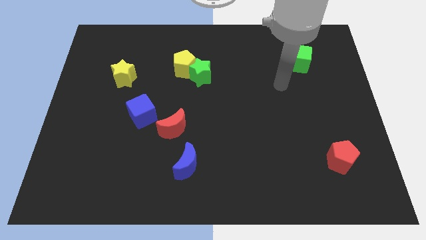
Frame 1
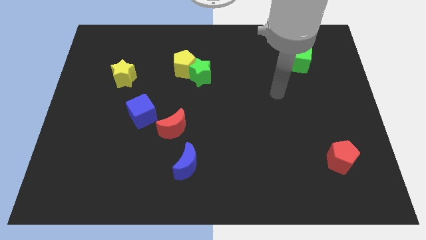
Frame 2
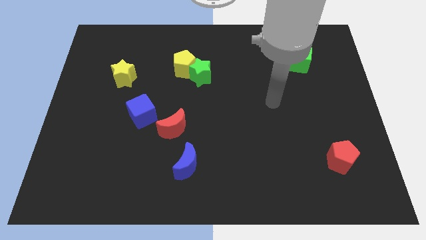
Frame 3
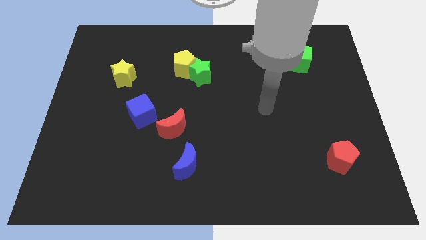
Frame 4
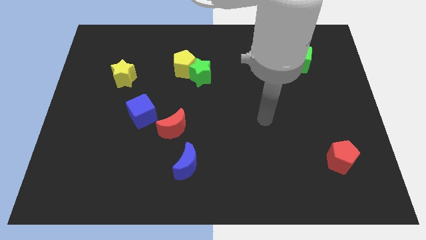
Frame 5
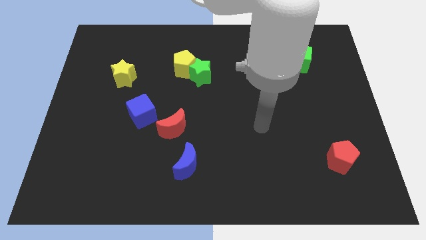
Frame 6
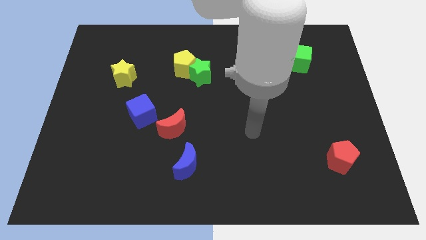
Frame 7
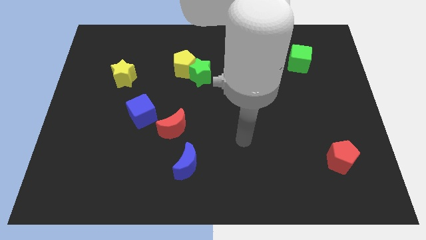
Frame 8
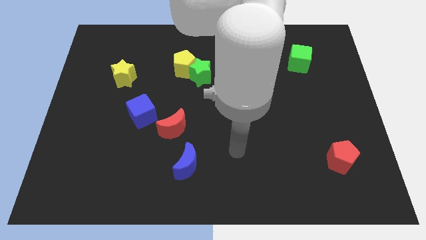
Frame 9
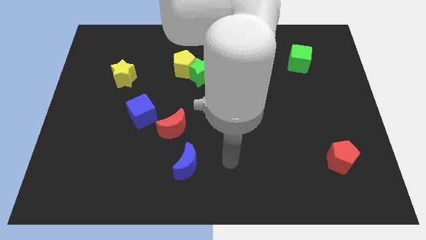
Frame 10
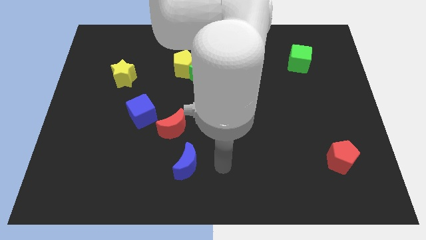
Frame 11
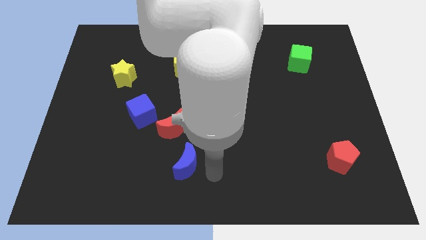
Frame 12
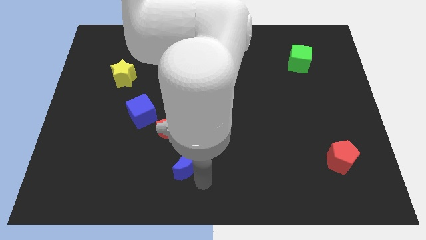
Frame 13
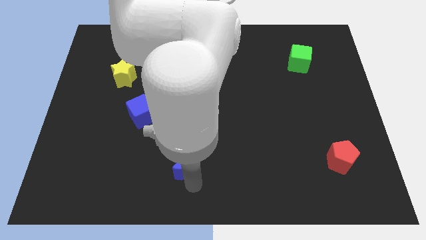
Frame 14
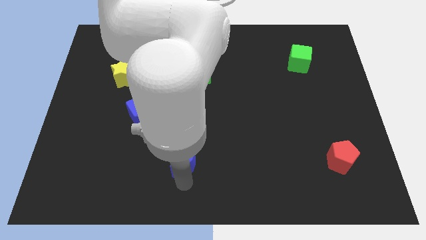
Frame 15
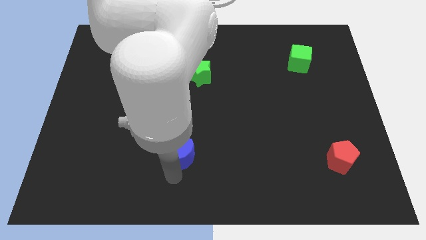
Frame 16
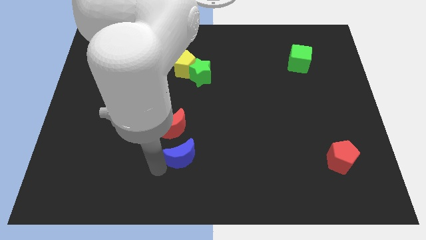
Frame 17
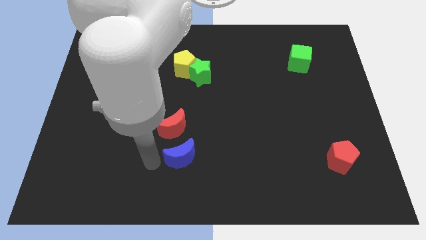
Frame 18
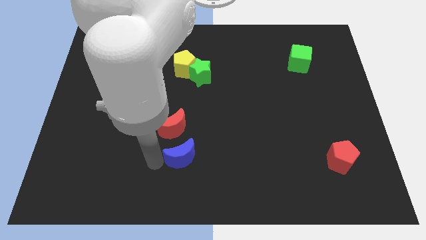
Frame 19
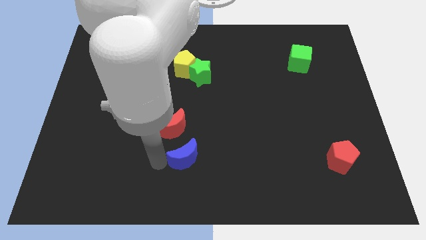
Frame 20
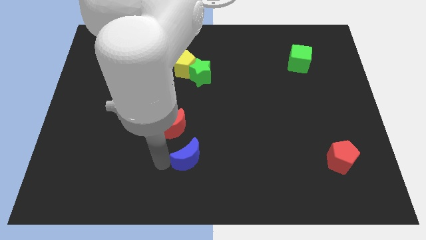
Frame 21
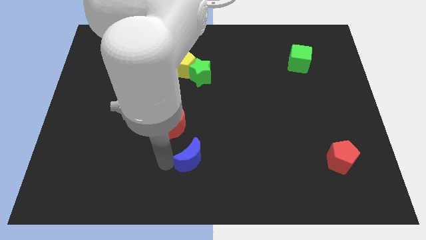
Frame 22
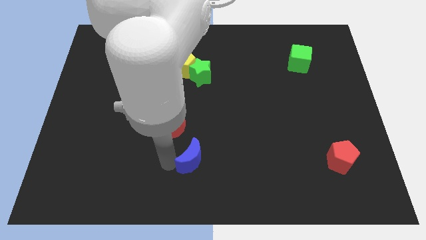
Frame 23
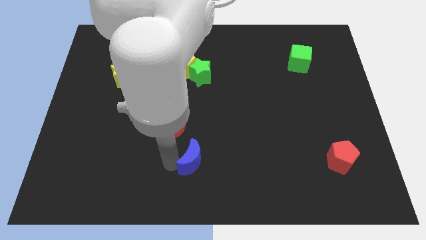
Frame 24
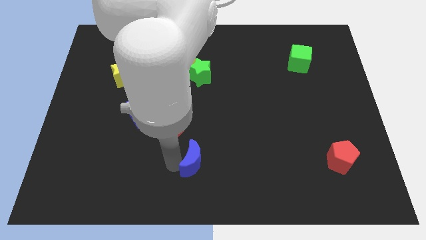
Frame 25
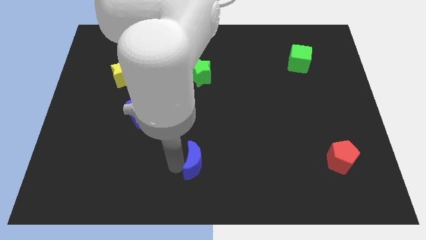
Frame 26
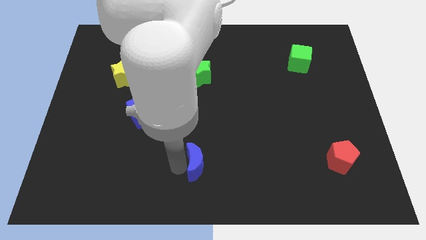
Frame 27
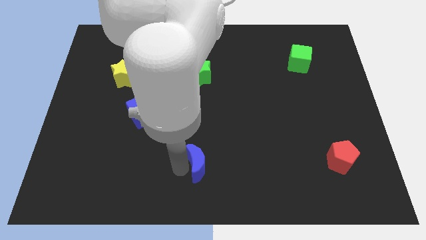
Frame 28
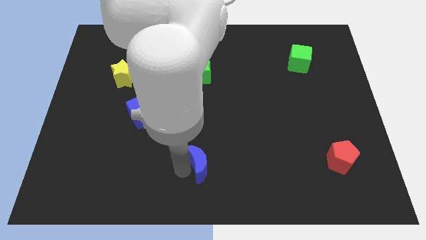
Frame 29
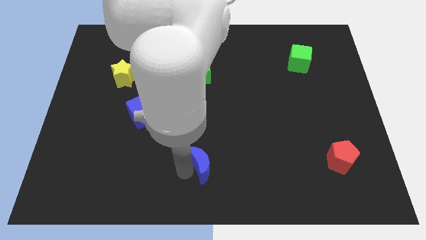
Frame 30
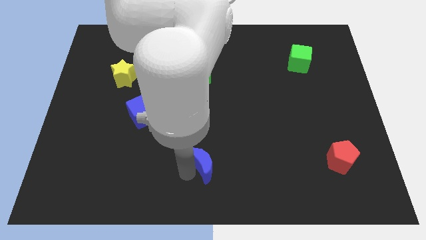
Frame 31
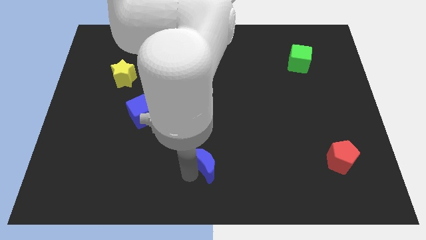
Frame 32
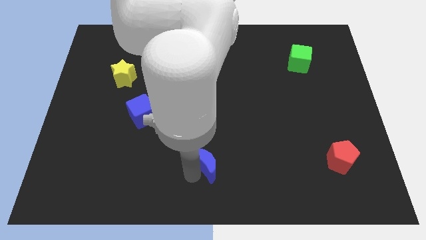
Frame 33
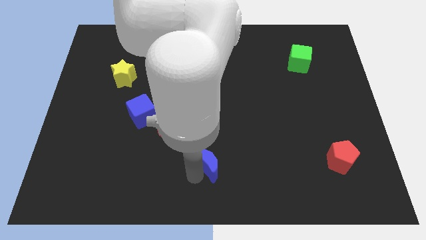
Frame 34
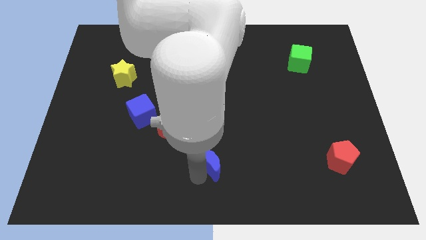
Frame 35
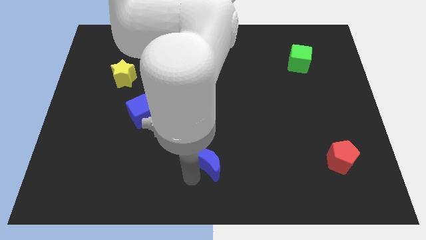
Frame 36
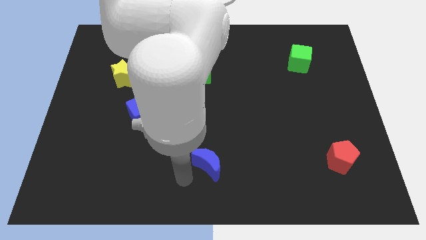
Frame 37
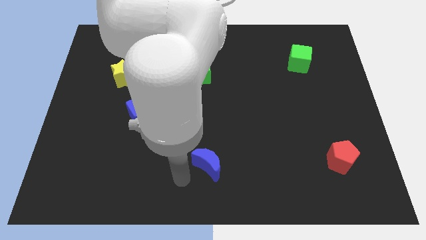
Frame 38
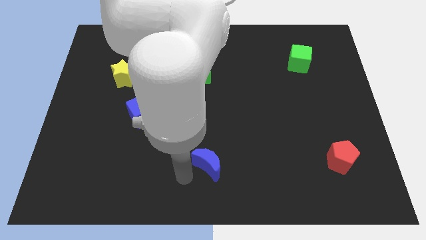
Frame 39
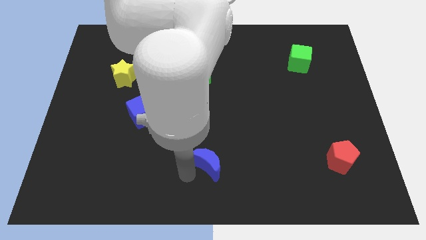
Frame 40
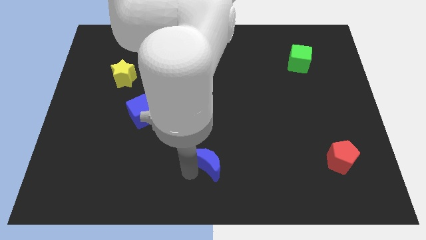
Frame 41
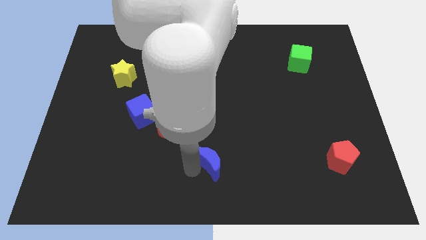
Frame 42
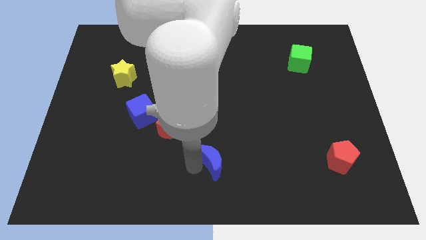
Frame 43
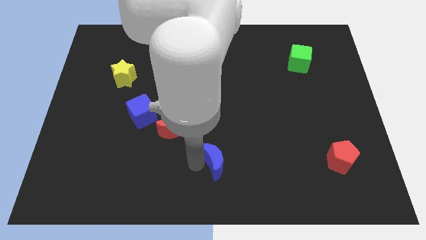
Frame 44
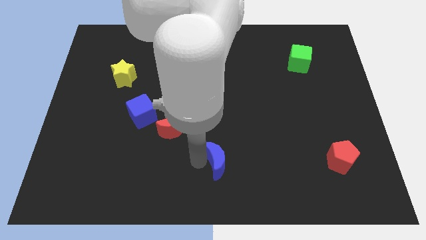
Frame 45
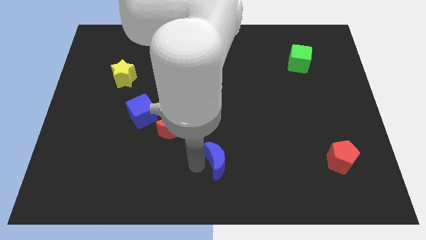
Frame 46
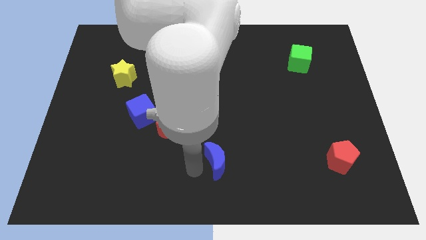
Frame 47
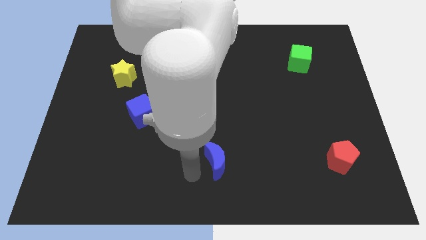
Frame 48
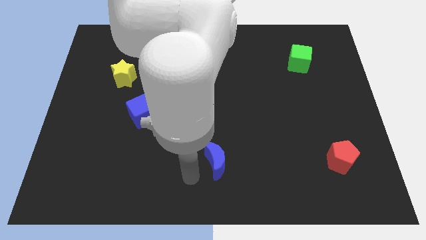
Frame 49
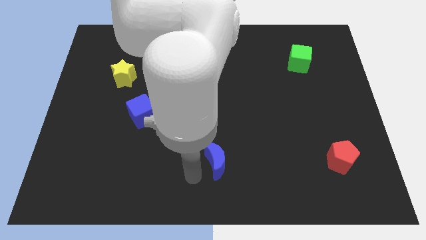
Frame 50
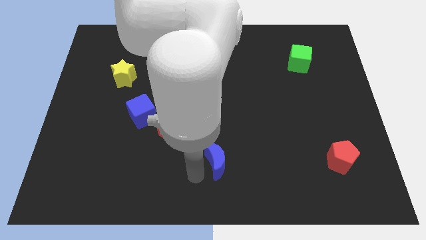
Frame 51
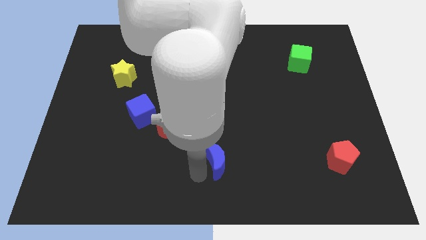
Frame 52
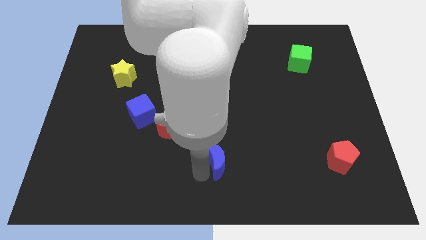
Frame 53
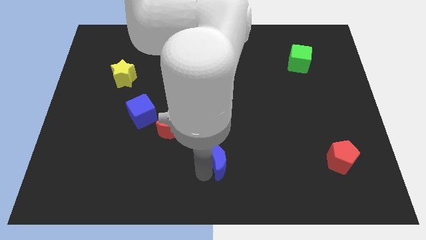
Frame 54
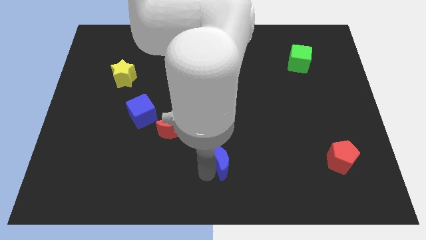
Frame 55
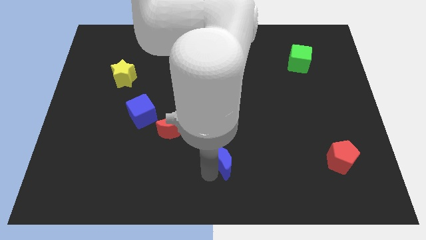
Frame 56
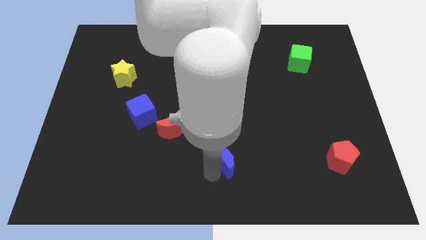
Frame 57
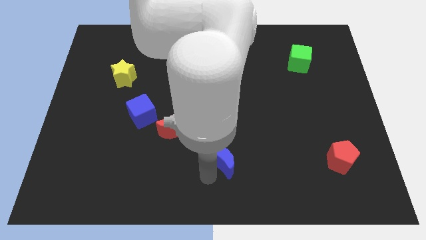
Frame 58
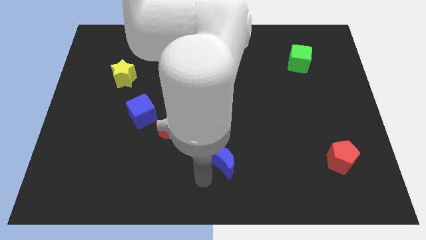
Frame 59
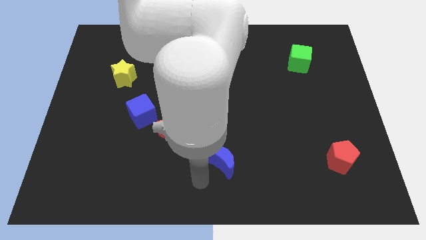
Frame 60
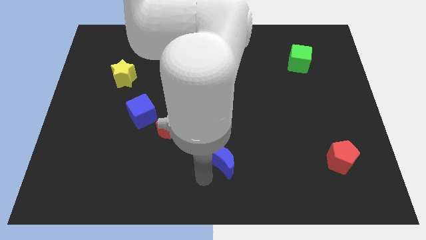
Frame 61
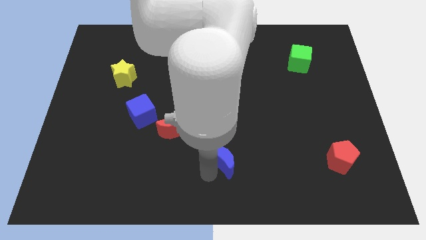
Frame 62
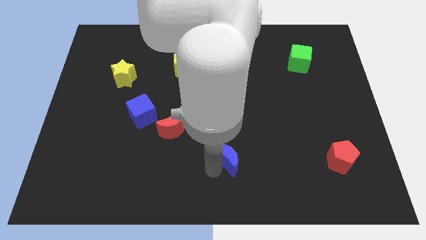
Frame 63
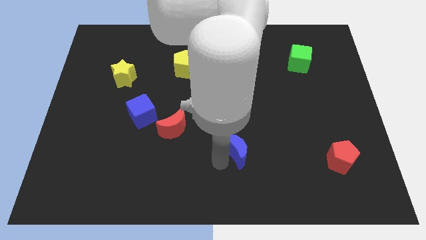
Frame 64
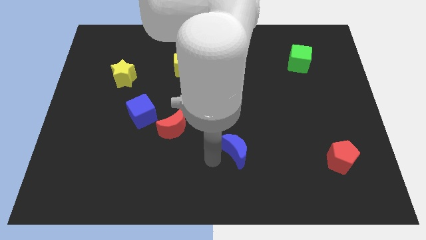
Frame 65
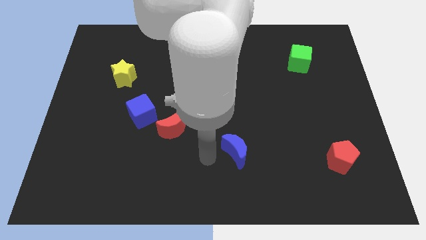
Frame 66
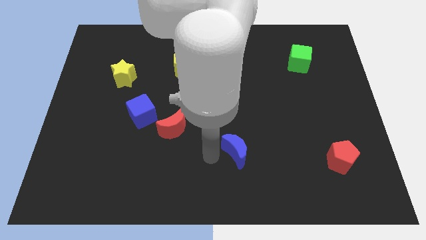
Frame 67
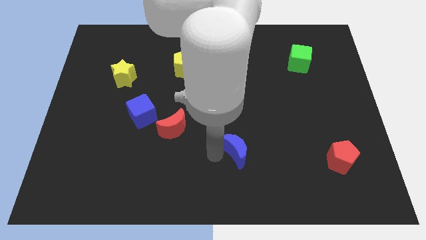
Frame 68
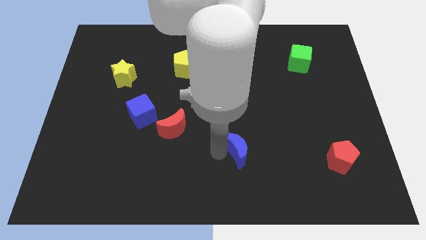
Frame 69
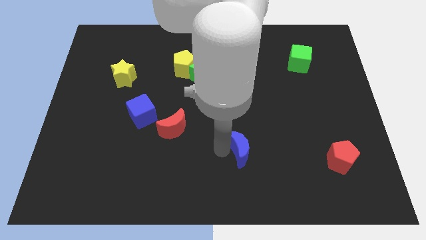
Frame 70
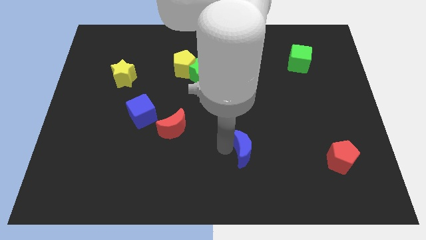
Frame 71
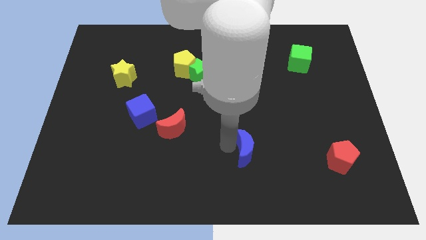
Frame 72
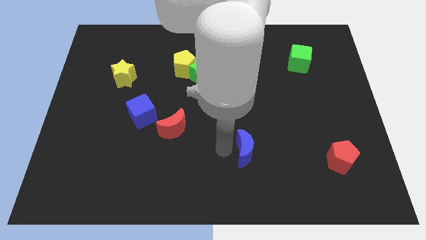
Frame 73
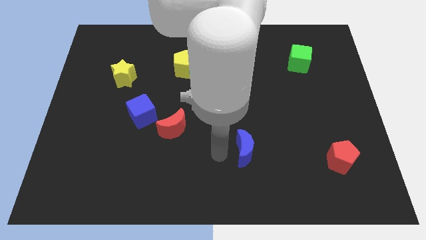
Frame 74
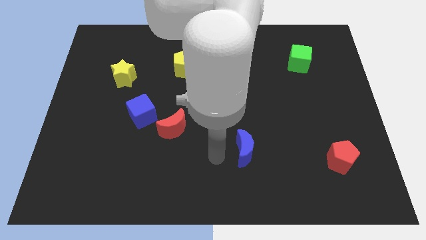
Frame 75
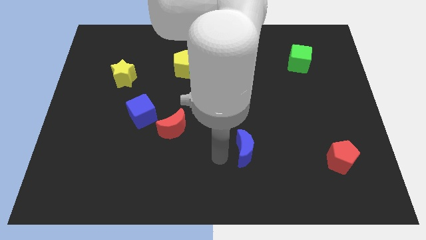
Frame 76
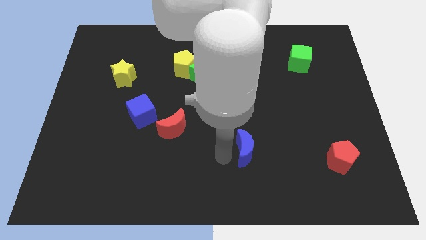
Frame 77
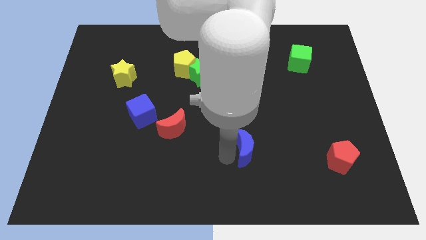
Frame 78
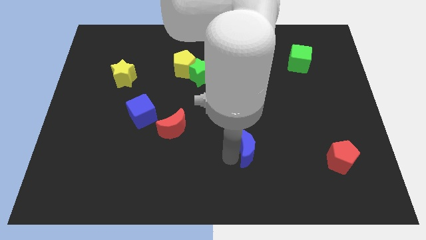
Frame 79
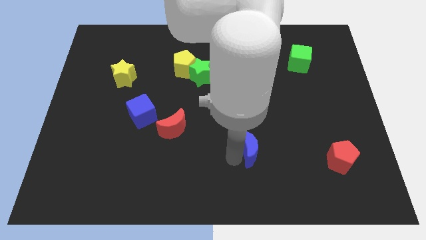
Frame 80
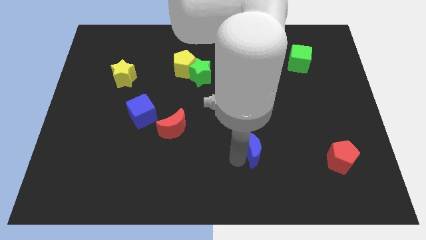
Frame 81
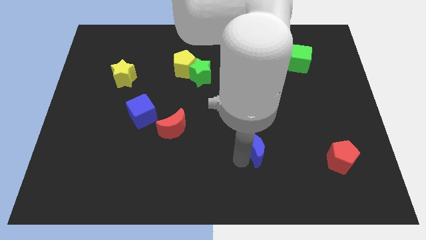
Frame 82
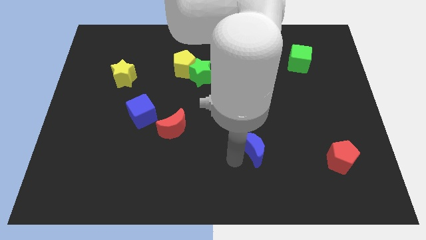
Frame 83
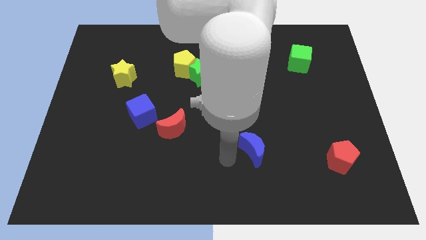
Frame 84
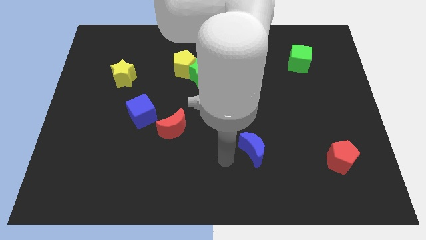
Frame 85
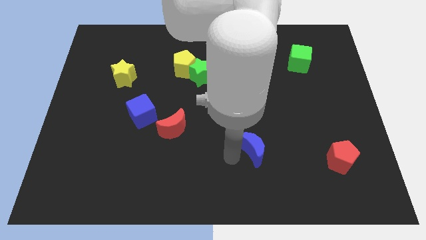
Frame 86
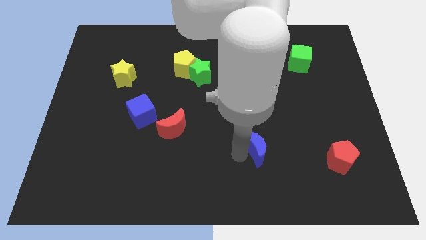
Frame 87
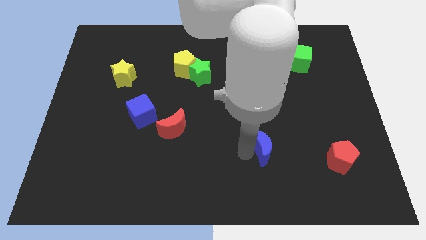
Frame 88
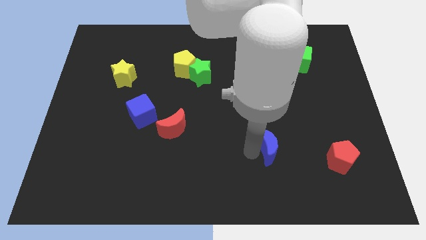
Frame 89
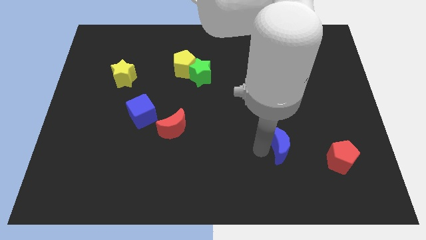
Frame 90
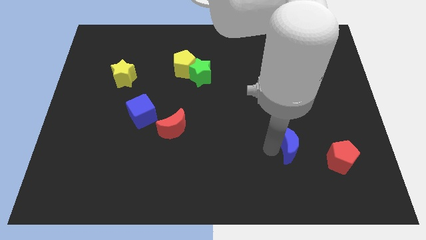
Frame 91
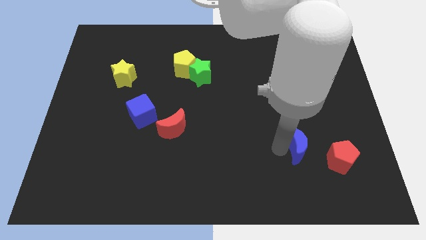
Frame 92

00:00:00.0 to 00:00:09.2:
move the blue moon to the top left side of the red pentagon
